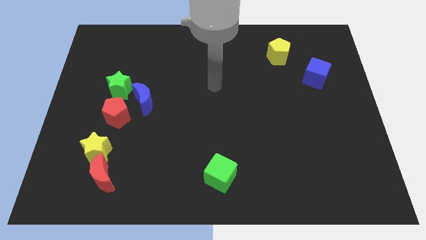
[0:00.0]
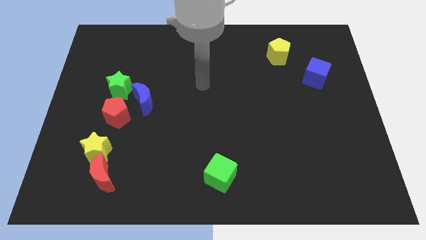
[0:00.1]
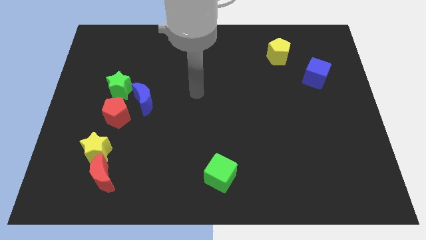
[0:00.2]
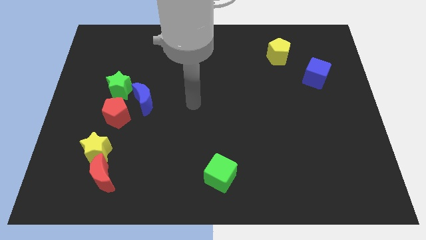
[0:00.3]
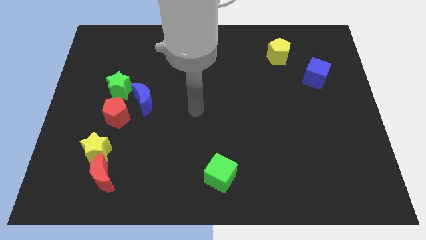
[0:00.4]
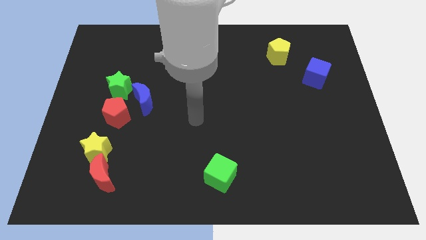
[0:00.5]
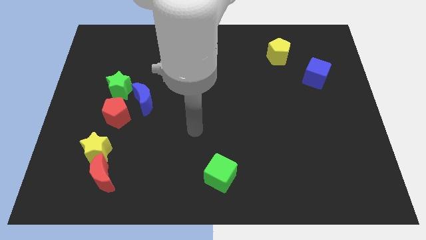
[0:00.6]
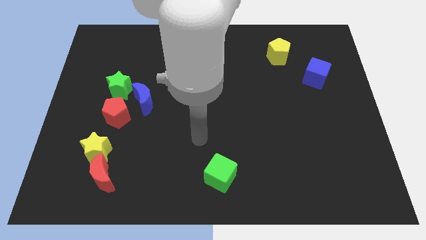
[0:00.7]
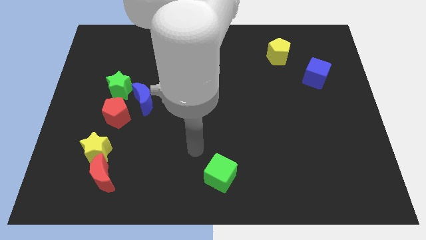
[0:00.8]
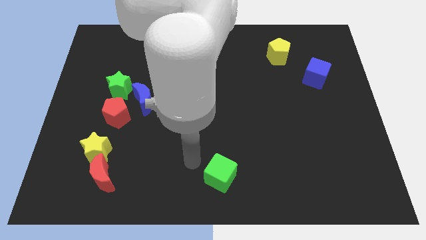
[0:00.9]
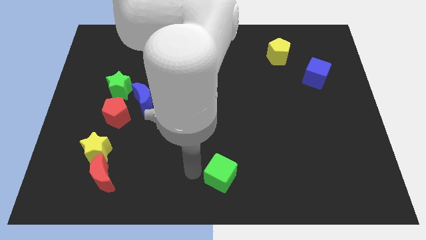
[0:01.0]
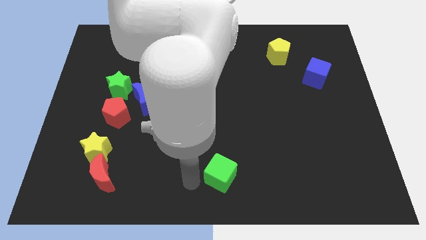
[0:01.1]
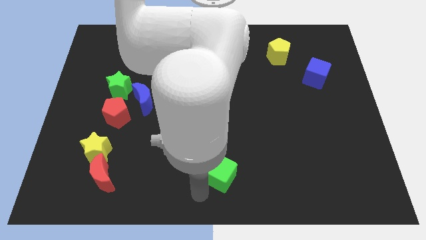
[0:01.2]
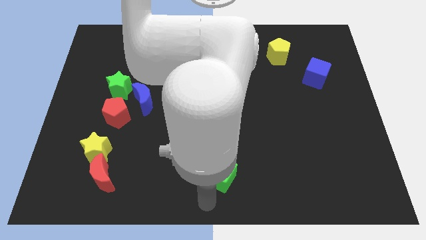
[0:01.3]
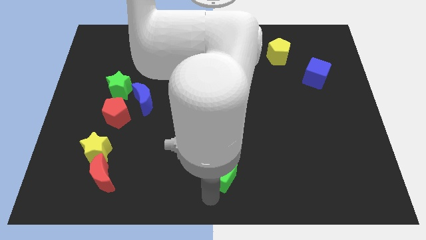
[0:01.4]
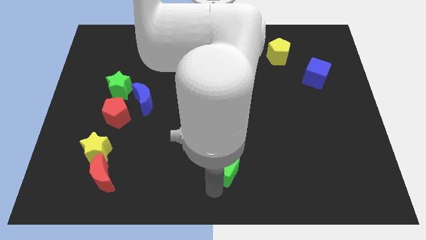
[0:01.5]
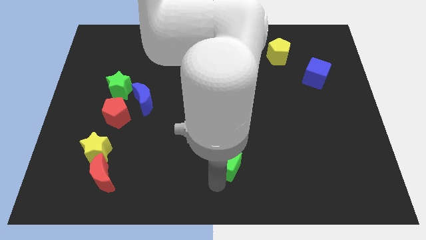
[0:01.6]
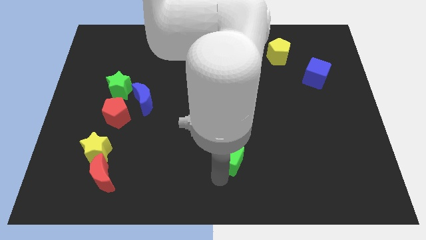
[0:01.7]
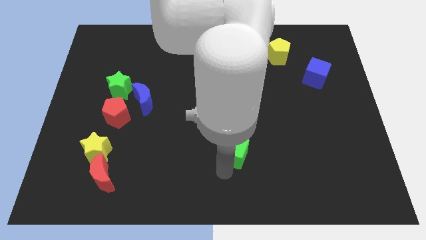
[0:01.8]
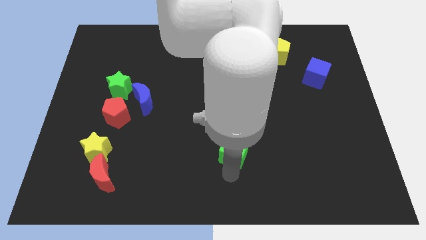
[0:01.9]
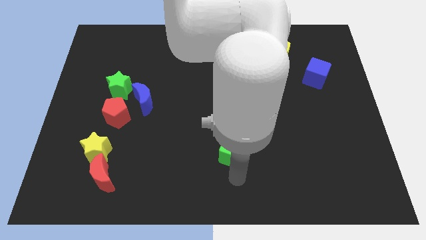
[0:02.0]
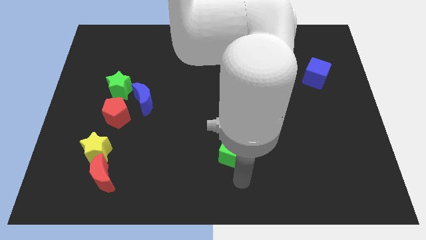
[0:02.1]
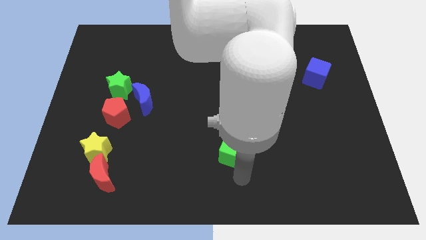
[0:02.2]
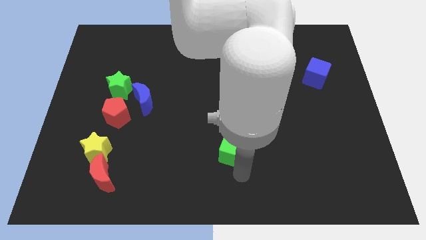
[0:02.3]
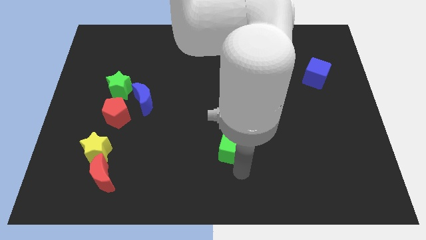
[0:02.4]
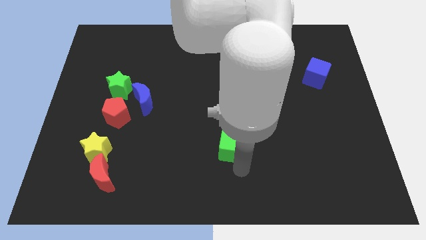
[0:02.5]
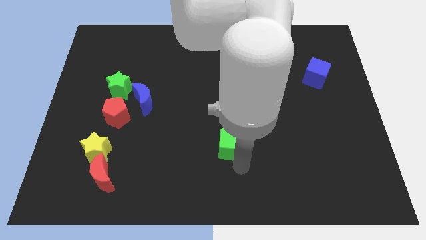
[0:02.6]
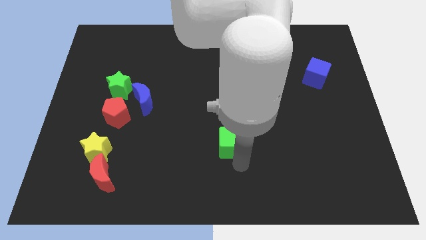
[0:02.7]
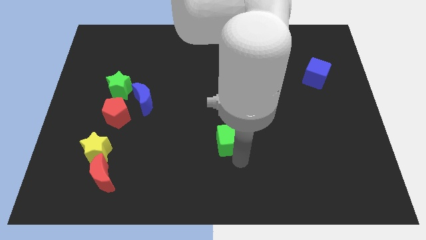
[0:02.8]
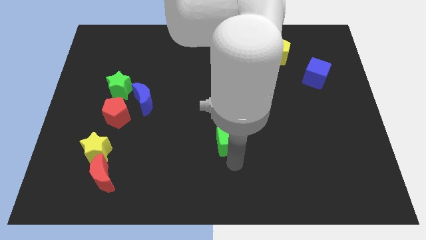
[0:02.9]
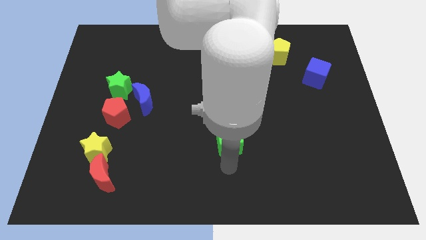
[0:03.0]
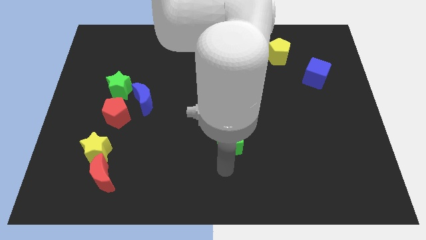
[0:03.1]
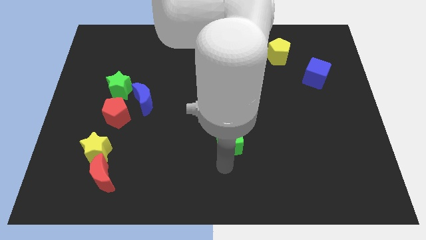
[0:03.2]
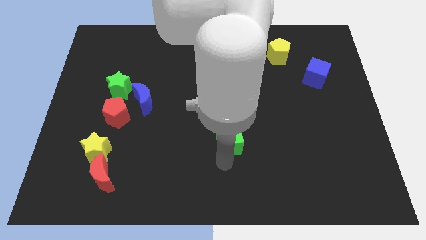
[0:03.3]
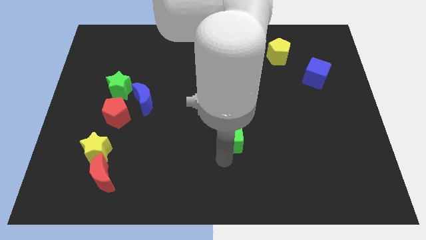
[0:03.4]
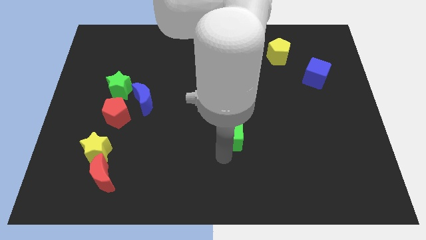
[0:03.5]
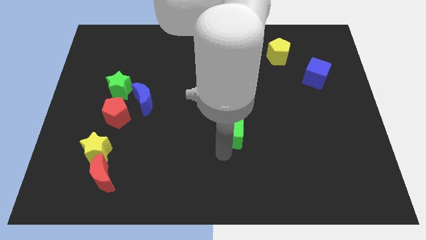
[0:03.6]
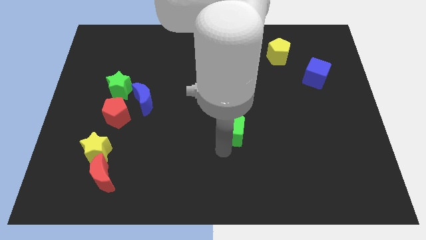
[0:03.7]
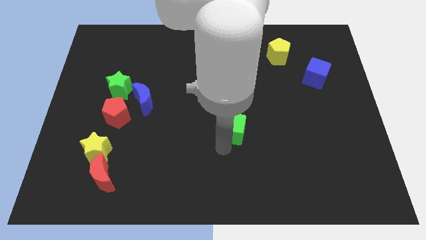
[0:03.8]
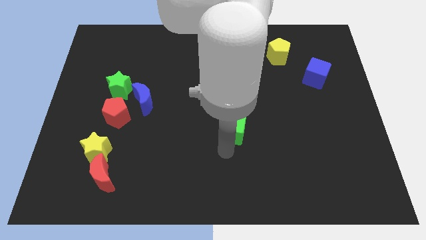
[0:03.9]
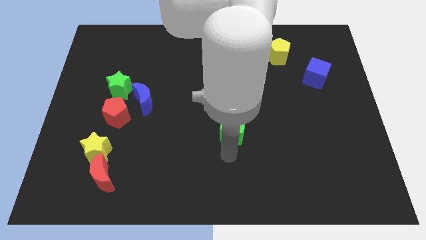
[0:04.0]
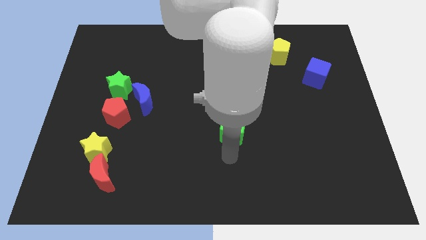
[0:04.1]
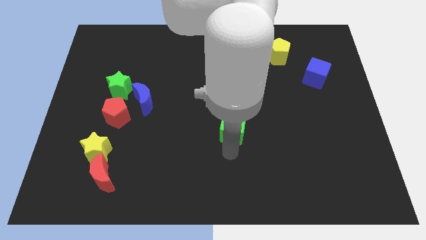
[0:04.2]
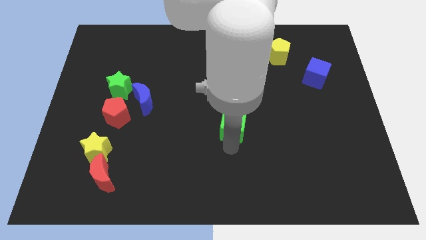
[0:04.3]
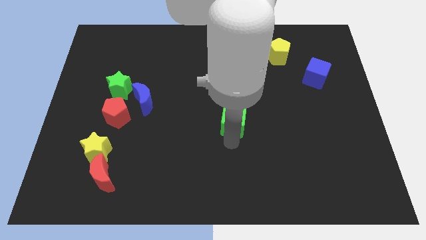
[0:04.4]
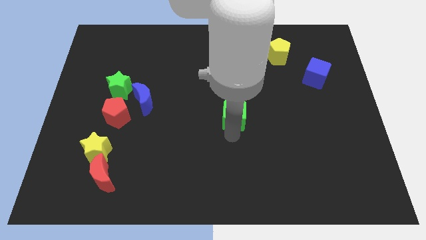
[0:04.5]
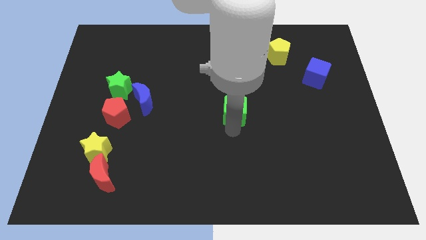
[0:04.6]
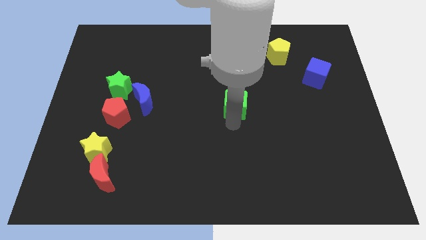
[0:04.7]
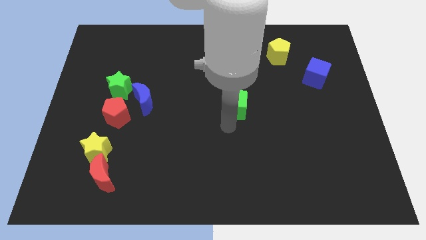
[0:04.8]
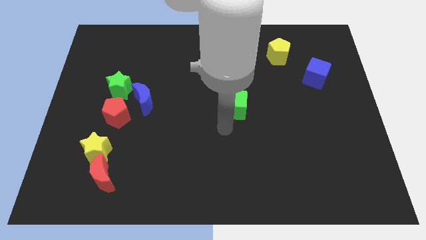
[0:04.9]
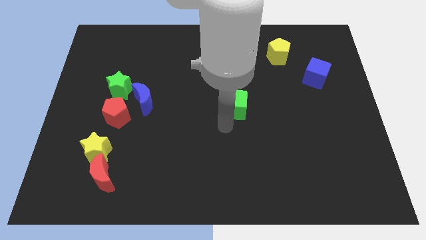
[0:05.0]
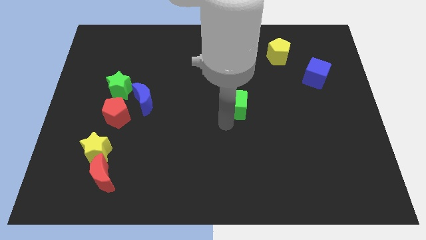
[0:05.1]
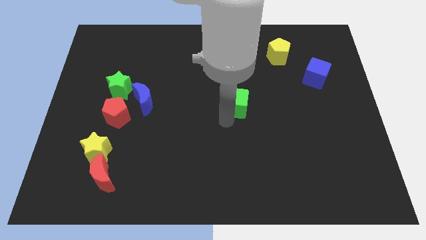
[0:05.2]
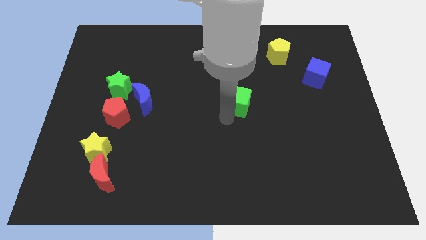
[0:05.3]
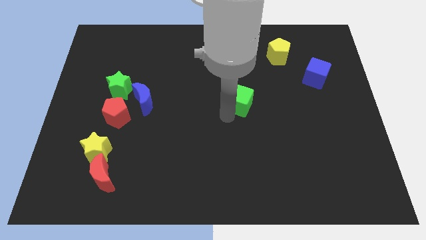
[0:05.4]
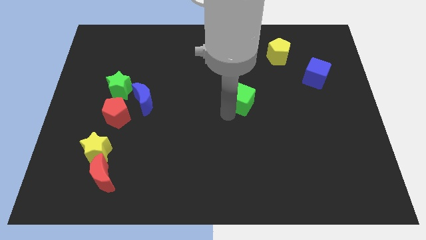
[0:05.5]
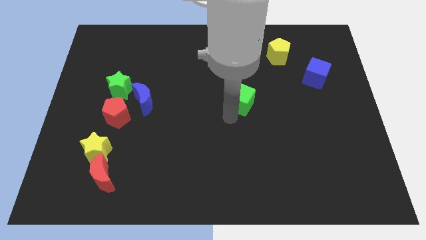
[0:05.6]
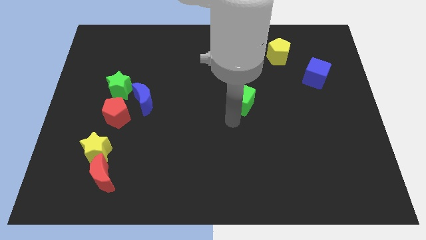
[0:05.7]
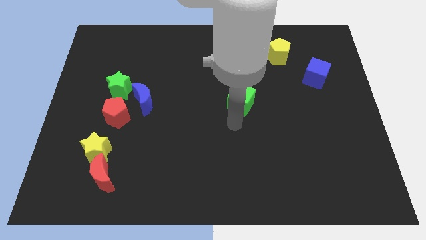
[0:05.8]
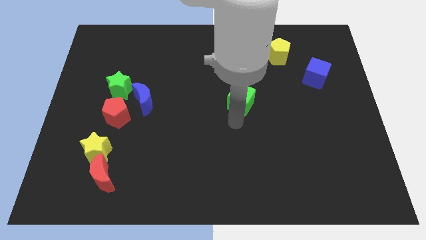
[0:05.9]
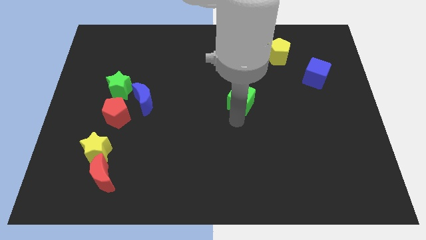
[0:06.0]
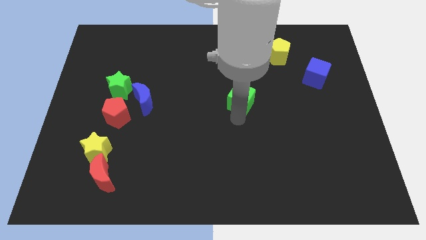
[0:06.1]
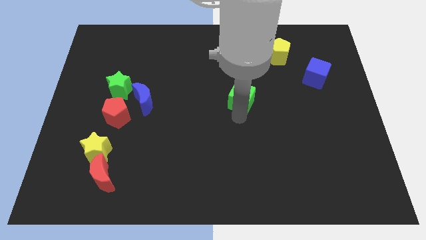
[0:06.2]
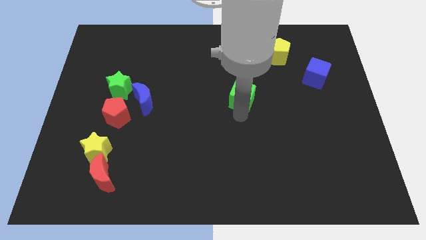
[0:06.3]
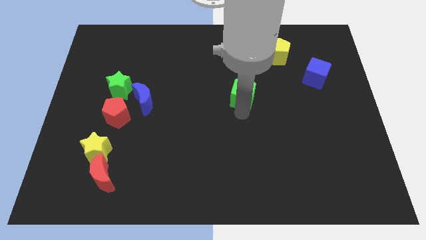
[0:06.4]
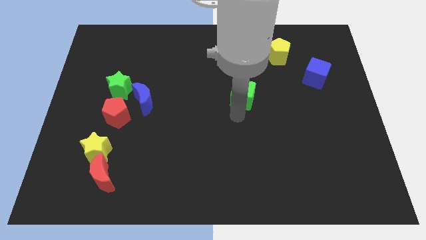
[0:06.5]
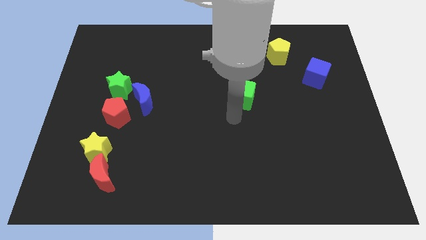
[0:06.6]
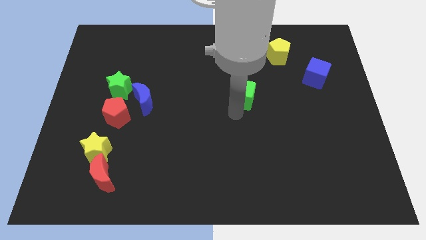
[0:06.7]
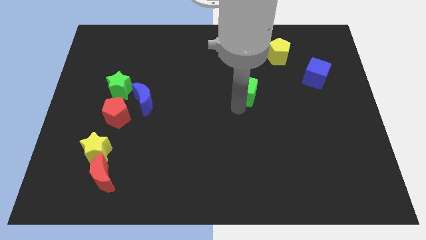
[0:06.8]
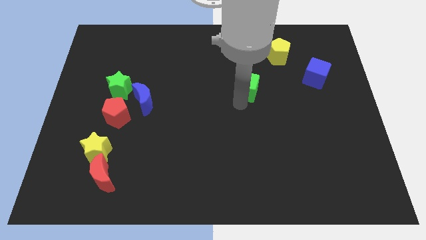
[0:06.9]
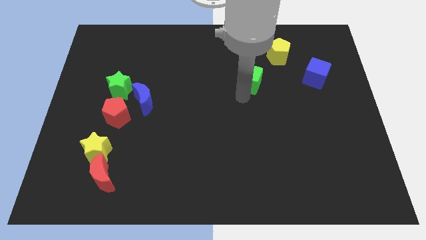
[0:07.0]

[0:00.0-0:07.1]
push the green cube to the bottom left of the yellow pentagon

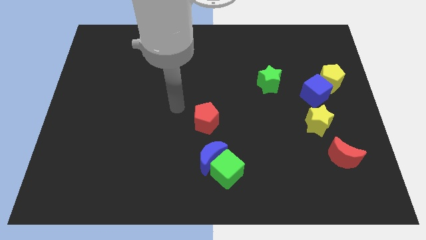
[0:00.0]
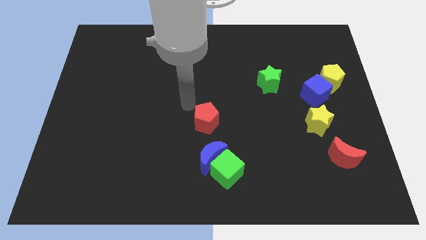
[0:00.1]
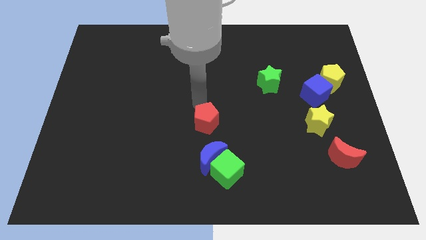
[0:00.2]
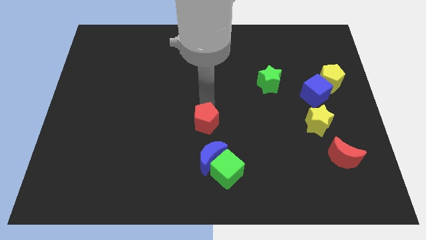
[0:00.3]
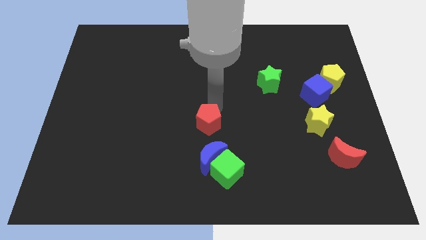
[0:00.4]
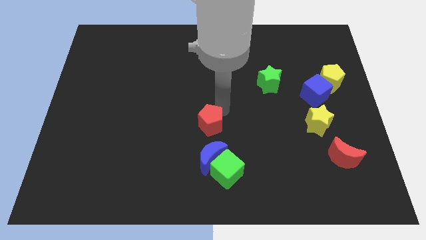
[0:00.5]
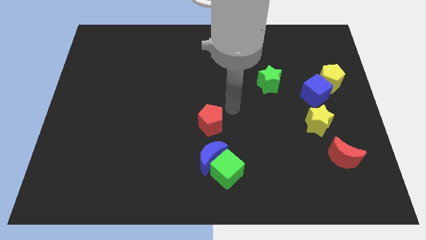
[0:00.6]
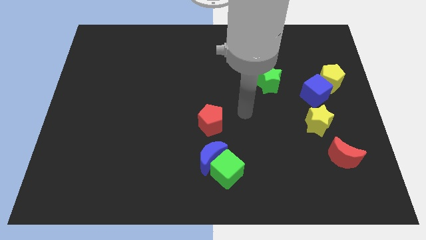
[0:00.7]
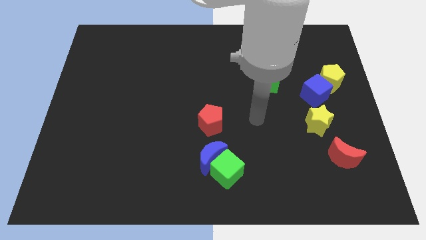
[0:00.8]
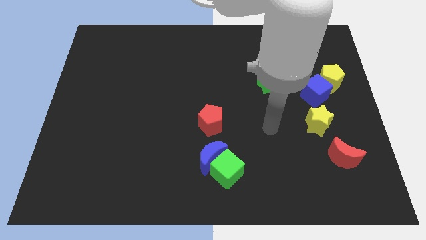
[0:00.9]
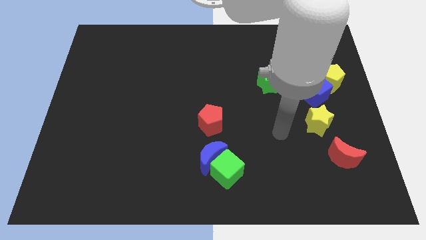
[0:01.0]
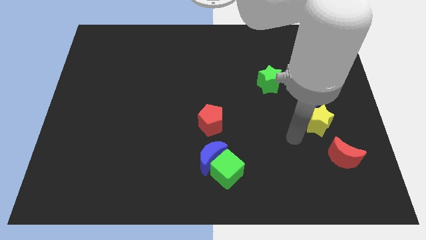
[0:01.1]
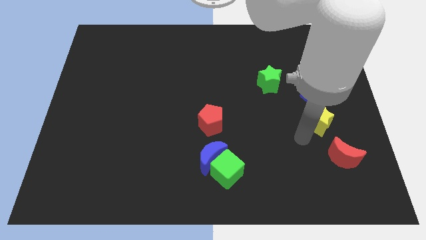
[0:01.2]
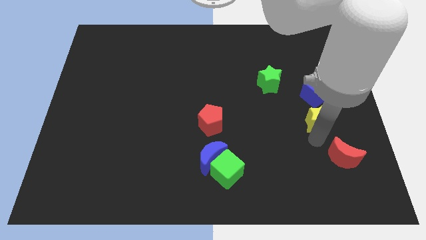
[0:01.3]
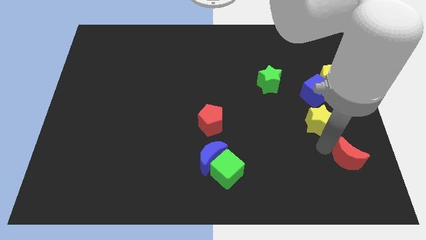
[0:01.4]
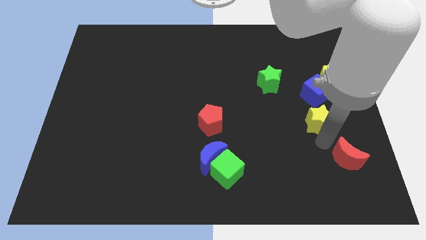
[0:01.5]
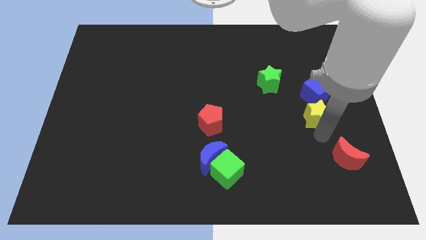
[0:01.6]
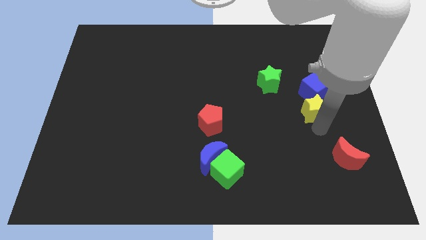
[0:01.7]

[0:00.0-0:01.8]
put the yellow star to the bottom left side of the yellow pentagon
